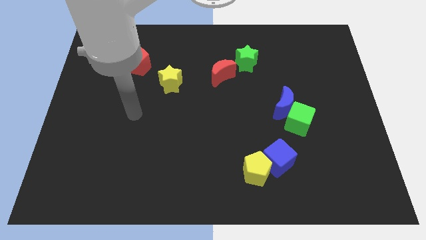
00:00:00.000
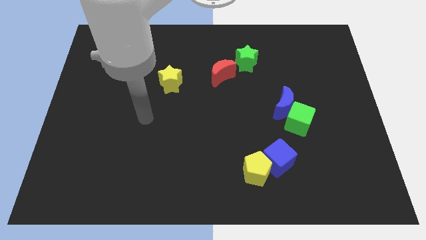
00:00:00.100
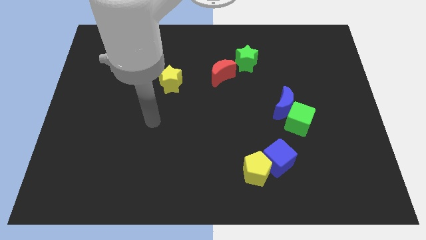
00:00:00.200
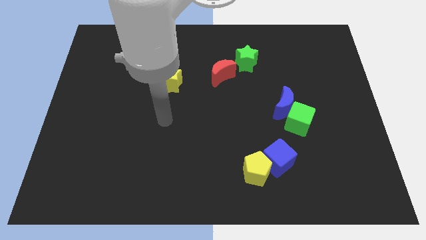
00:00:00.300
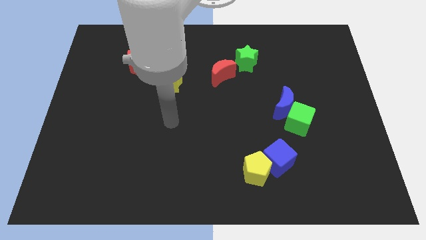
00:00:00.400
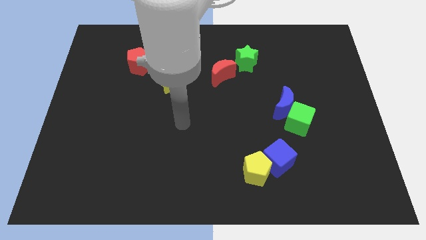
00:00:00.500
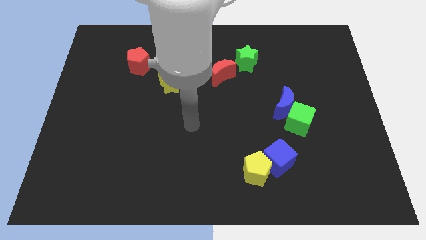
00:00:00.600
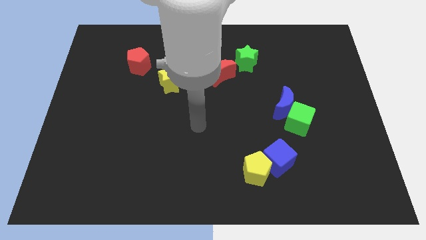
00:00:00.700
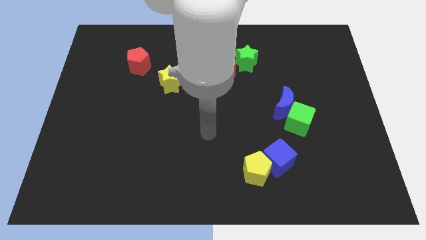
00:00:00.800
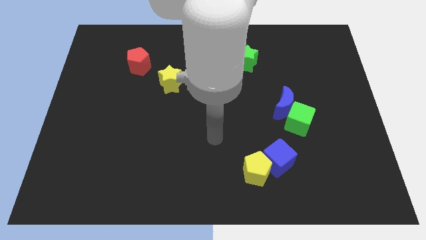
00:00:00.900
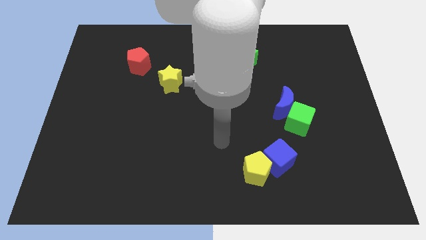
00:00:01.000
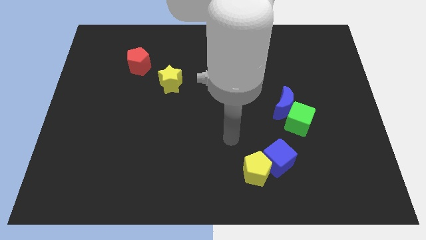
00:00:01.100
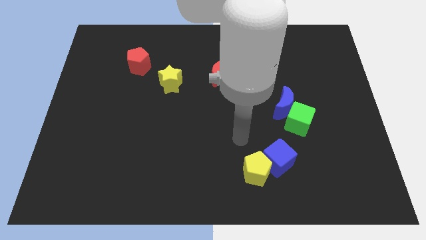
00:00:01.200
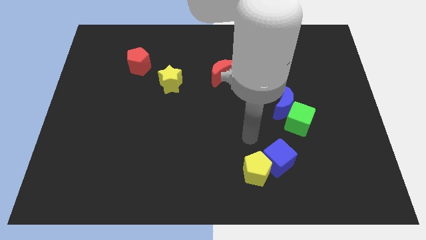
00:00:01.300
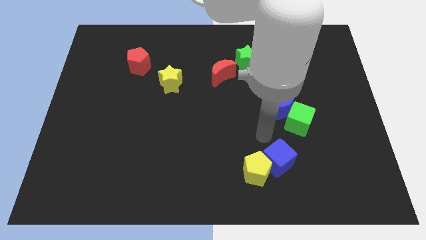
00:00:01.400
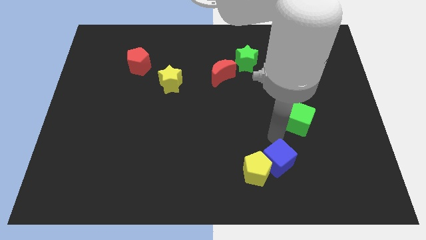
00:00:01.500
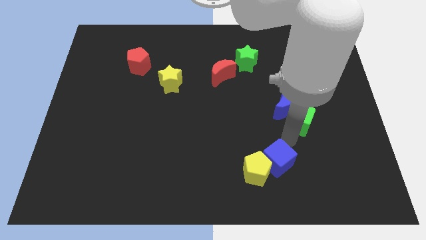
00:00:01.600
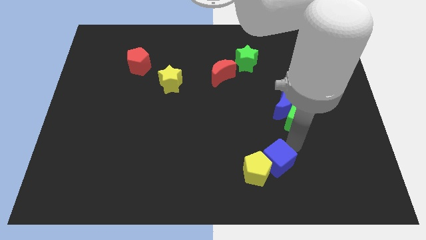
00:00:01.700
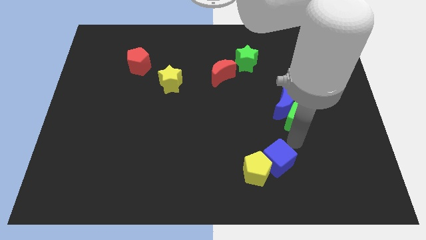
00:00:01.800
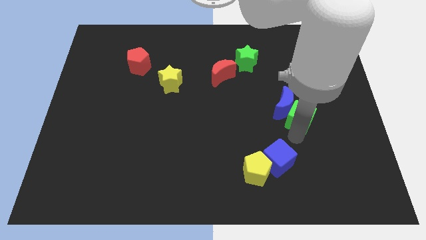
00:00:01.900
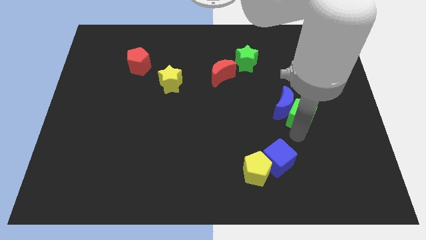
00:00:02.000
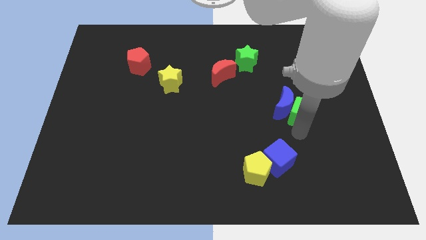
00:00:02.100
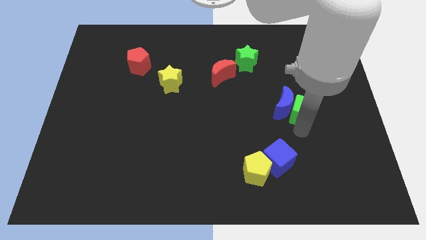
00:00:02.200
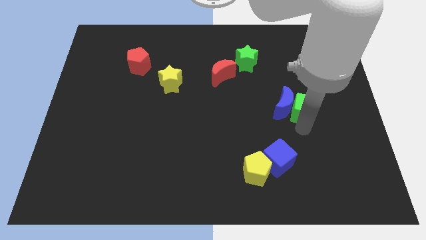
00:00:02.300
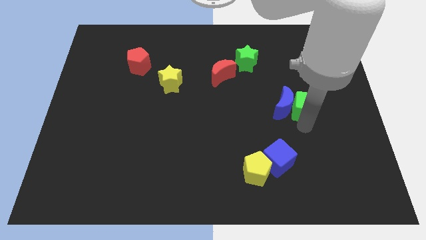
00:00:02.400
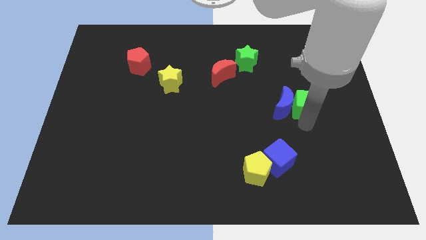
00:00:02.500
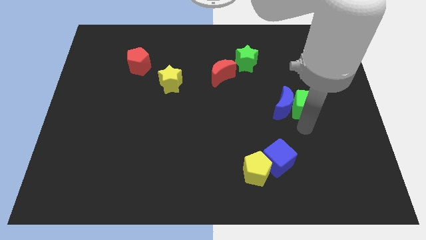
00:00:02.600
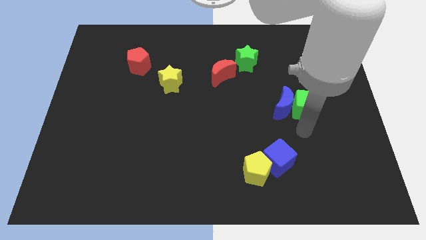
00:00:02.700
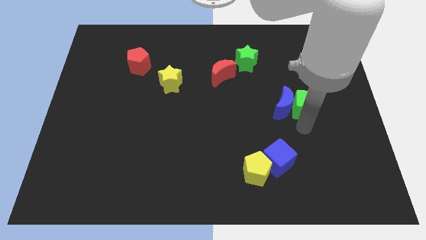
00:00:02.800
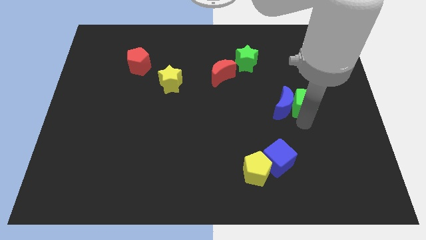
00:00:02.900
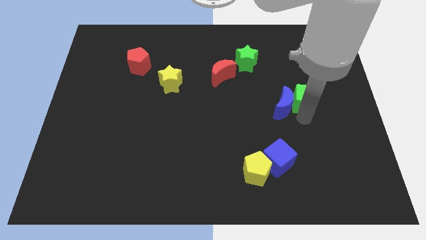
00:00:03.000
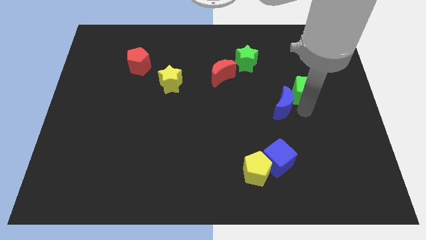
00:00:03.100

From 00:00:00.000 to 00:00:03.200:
push the green cube a little upwards

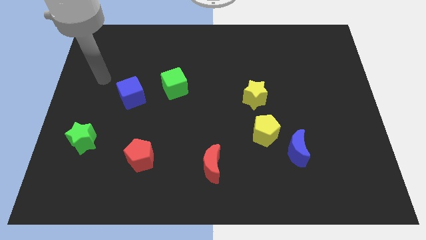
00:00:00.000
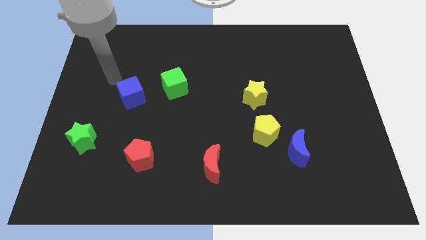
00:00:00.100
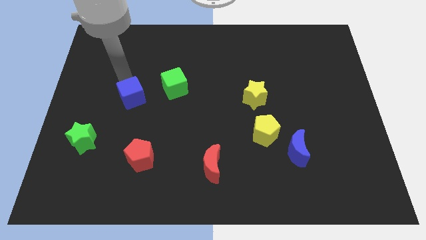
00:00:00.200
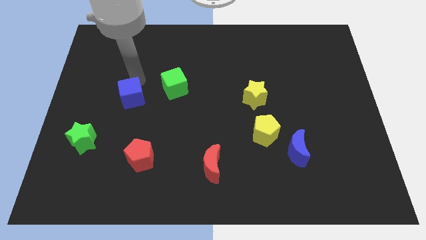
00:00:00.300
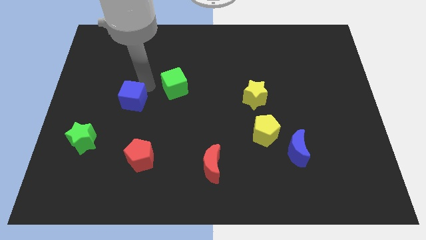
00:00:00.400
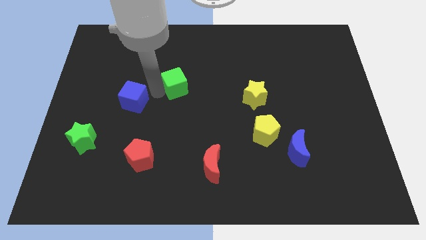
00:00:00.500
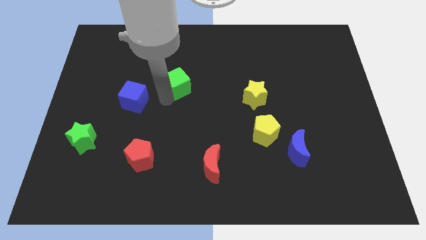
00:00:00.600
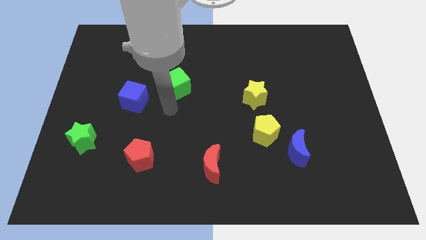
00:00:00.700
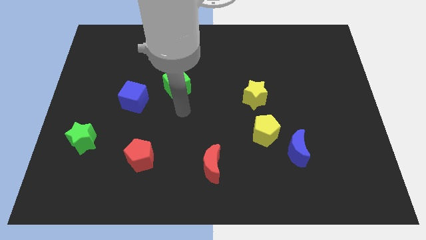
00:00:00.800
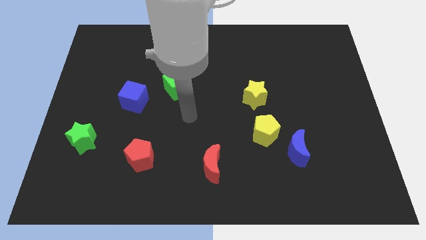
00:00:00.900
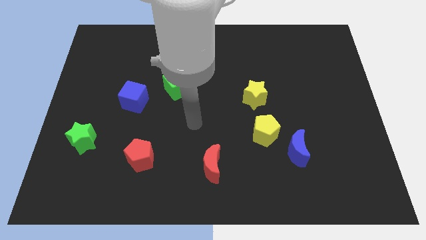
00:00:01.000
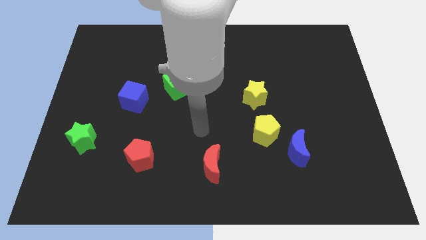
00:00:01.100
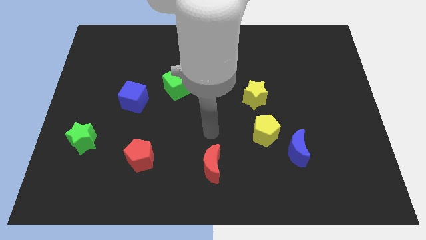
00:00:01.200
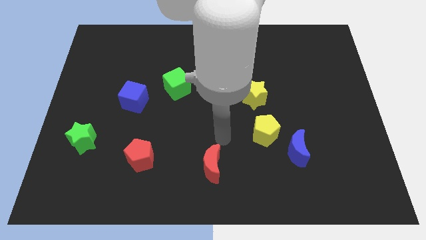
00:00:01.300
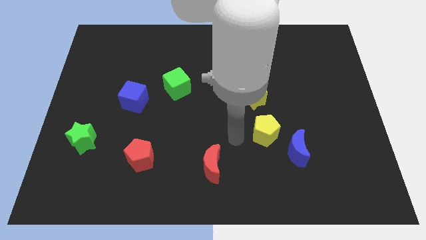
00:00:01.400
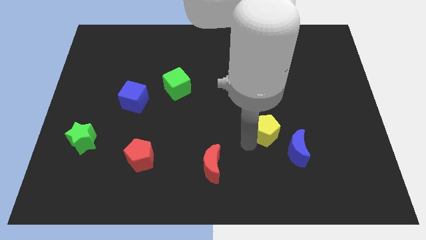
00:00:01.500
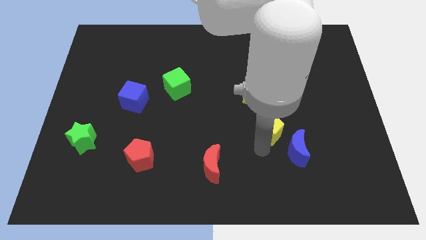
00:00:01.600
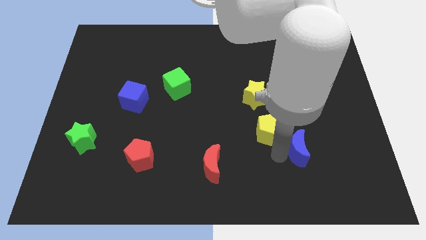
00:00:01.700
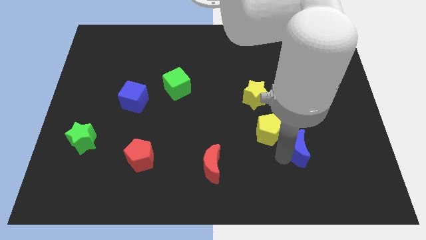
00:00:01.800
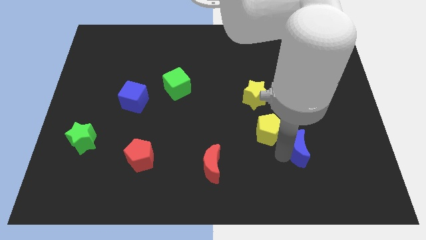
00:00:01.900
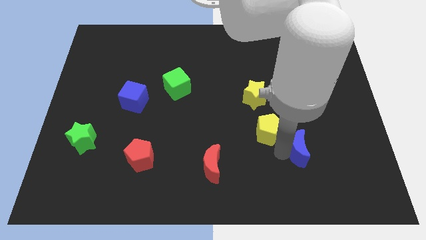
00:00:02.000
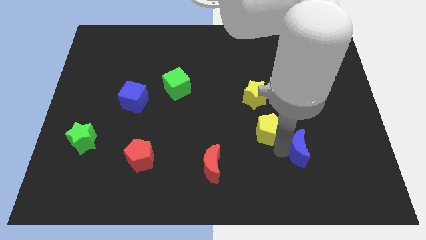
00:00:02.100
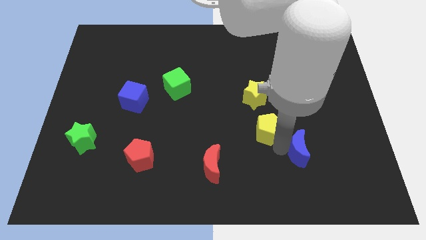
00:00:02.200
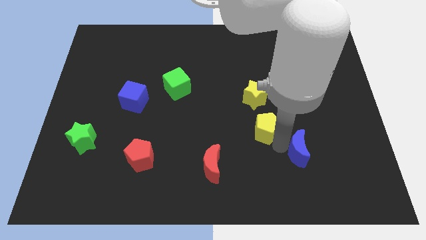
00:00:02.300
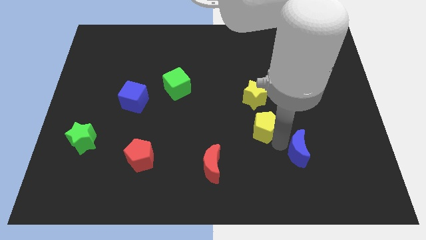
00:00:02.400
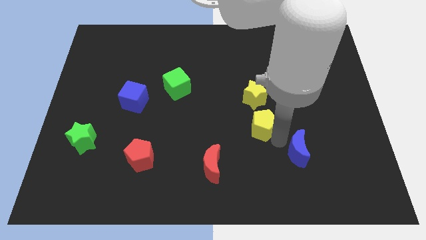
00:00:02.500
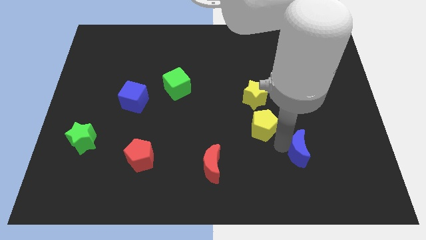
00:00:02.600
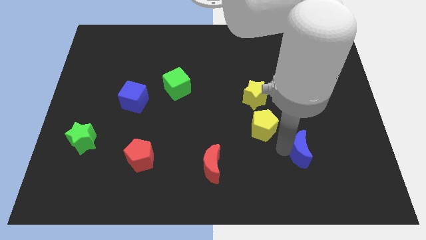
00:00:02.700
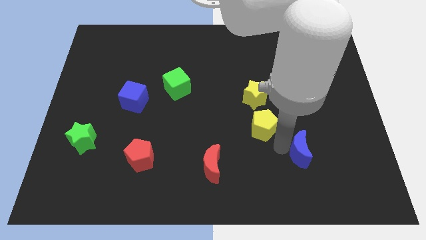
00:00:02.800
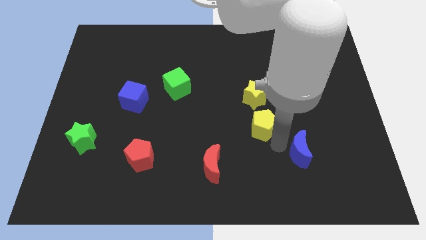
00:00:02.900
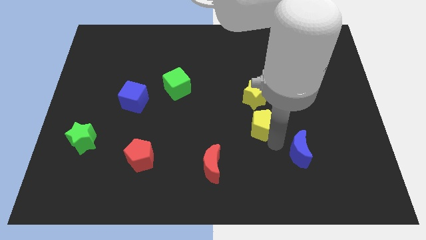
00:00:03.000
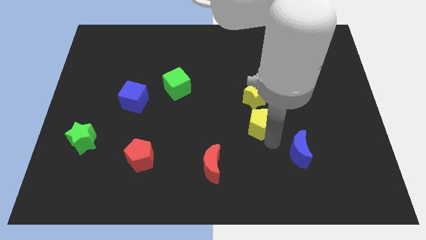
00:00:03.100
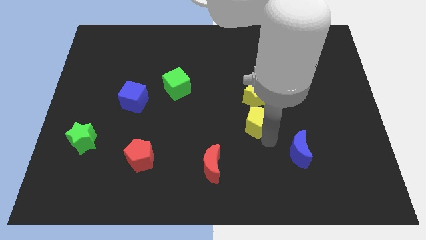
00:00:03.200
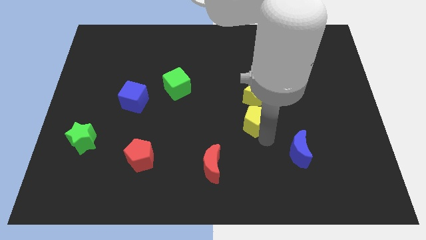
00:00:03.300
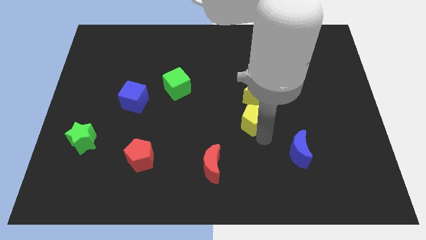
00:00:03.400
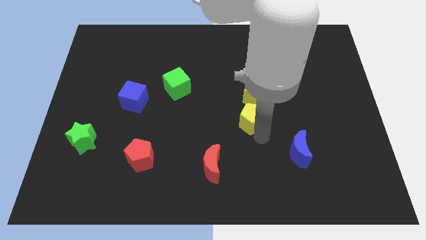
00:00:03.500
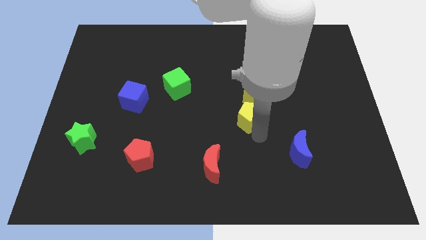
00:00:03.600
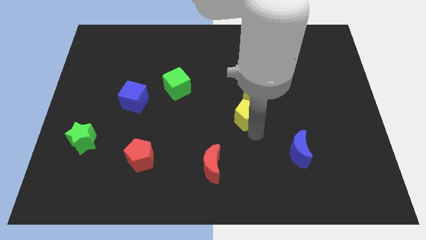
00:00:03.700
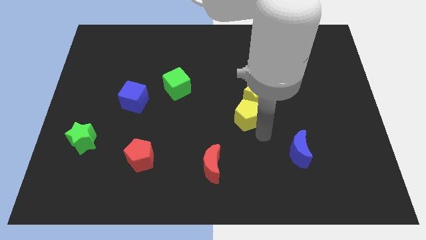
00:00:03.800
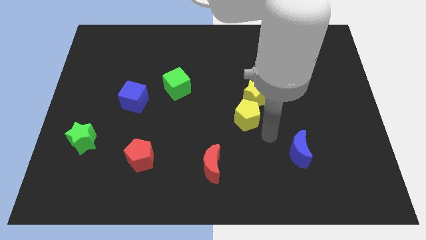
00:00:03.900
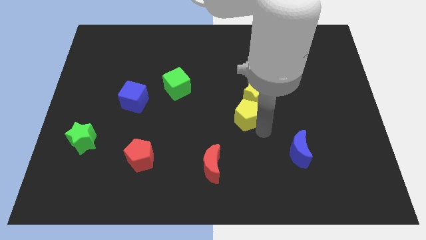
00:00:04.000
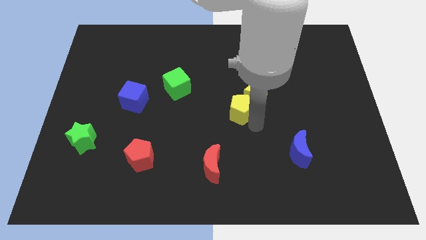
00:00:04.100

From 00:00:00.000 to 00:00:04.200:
slide the yellow pentagon up and left somewhat

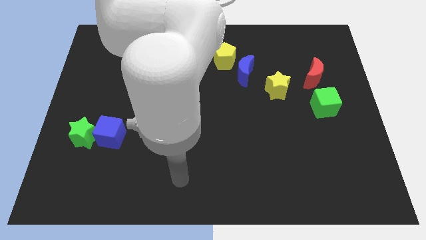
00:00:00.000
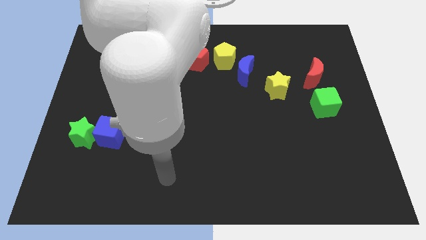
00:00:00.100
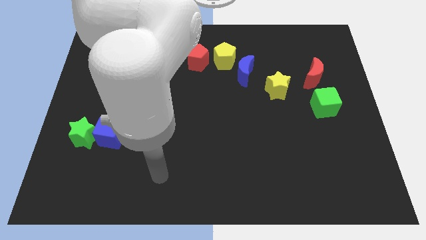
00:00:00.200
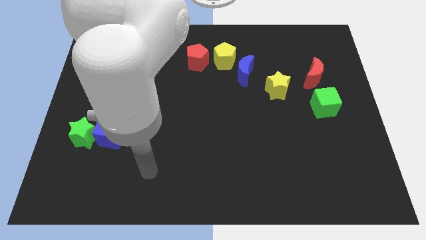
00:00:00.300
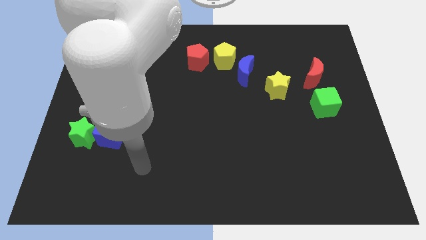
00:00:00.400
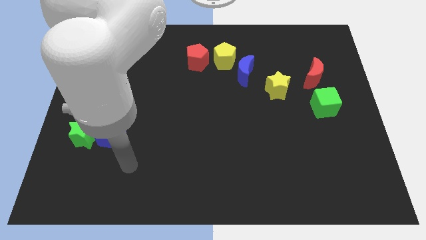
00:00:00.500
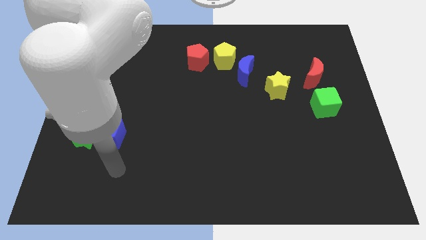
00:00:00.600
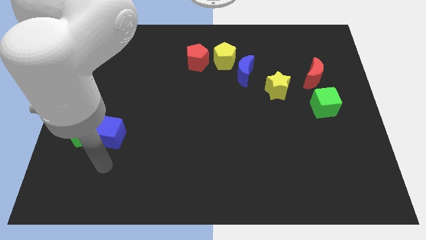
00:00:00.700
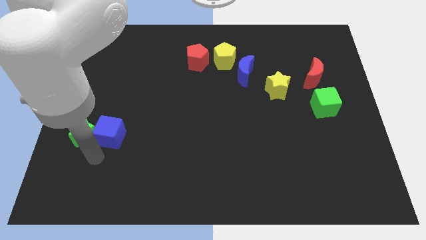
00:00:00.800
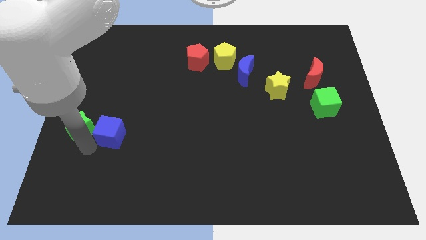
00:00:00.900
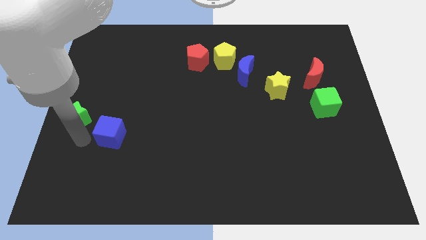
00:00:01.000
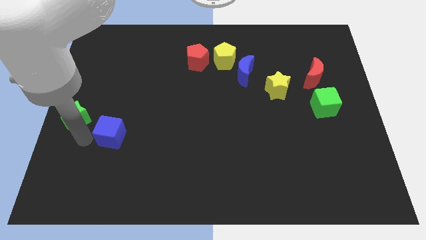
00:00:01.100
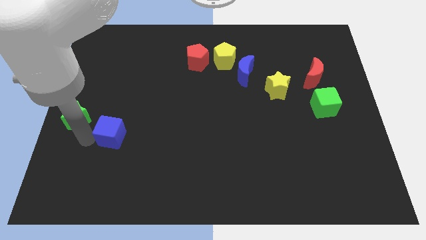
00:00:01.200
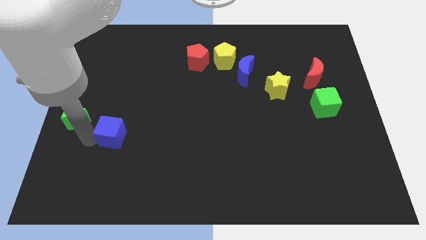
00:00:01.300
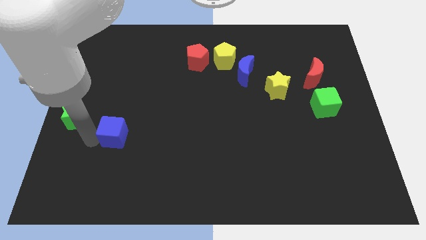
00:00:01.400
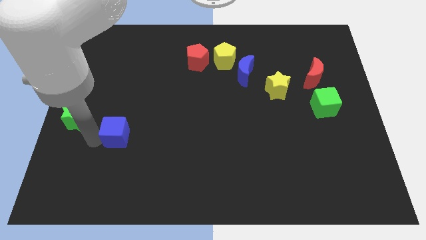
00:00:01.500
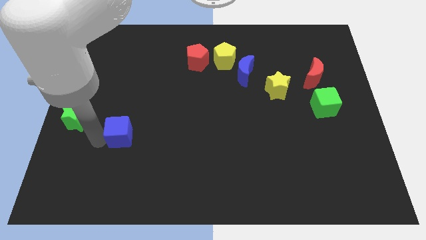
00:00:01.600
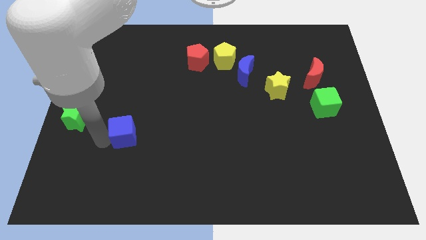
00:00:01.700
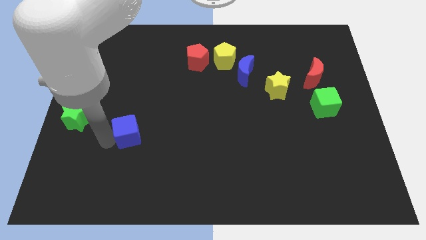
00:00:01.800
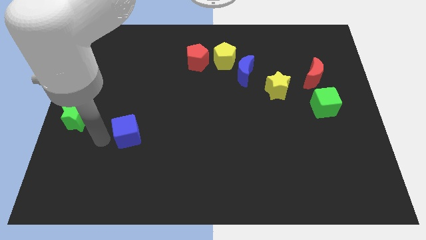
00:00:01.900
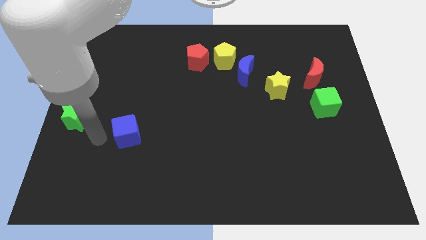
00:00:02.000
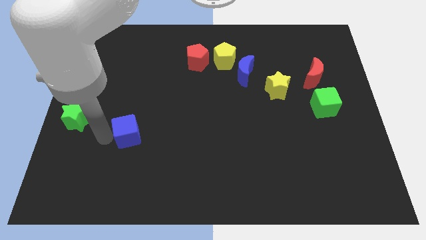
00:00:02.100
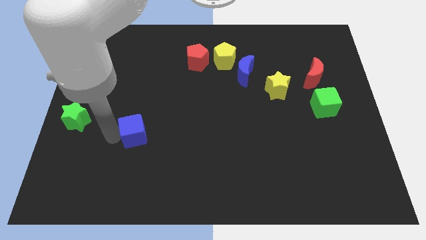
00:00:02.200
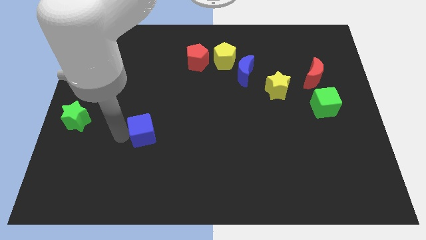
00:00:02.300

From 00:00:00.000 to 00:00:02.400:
slightly slide the blue cube to the right
